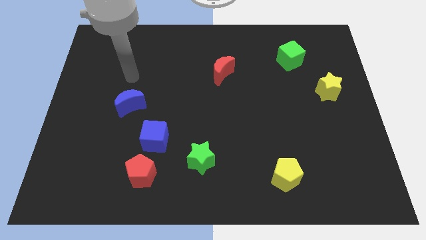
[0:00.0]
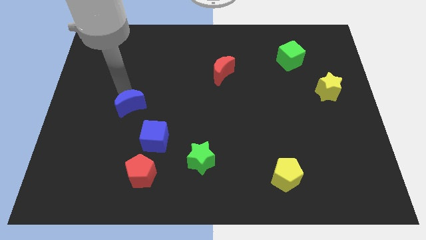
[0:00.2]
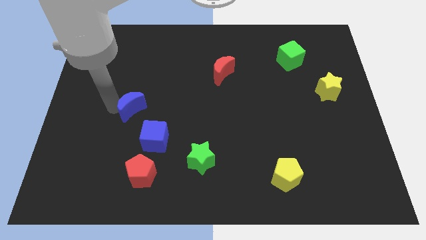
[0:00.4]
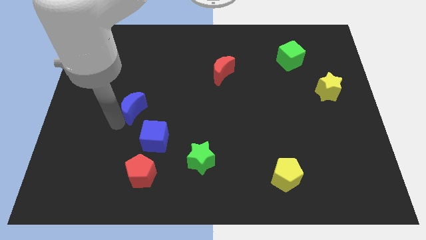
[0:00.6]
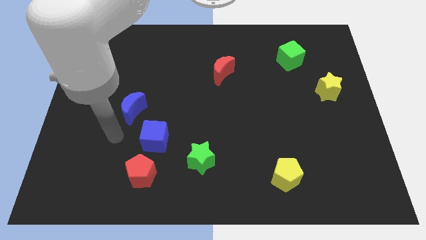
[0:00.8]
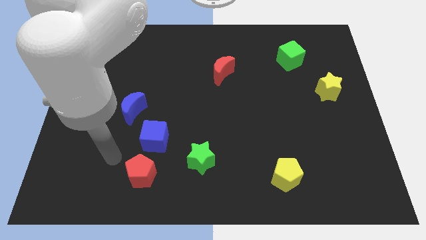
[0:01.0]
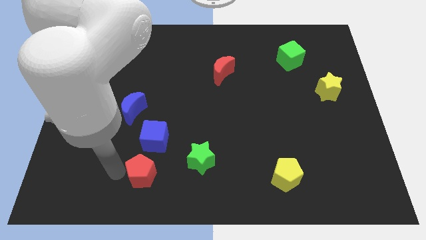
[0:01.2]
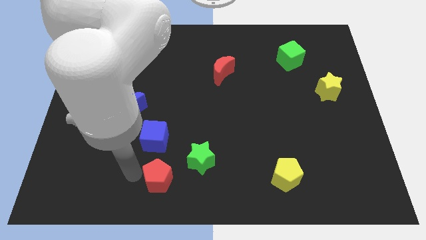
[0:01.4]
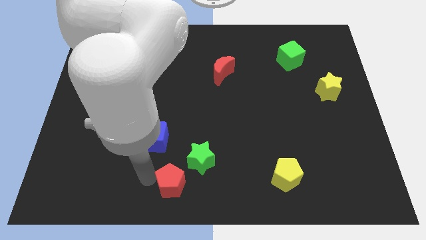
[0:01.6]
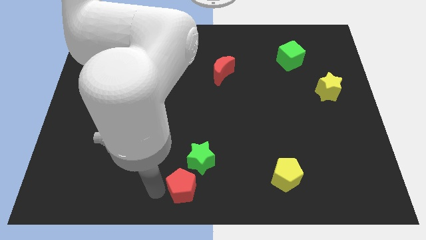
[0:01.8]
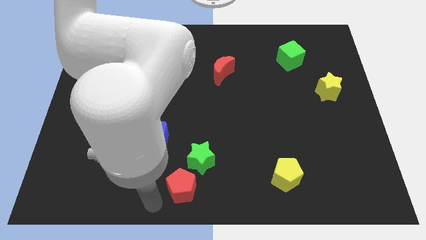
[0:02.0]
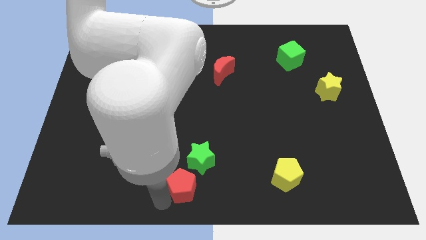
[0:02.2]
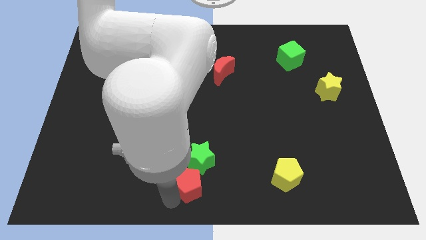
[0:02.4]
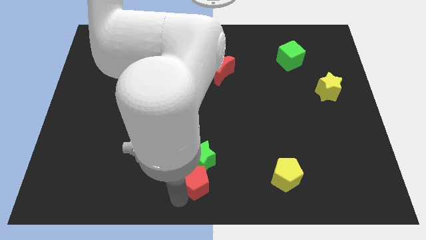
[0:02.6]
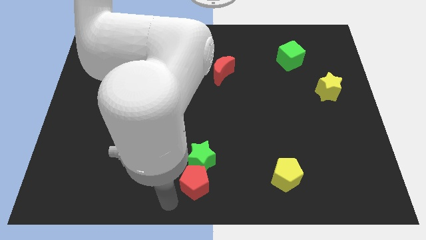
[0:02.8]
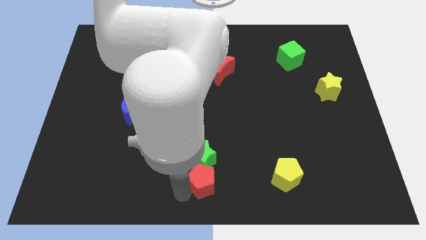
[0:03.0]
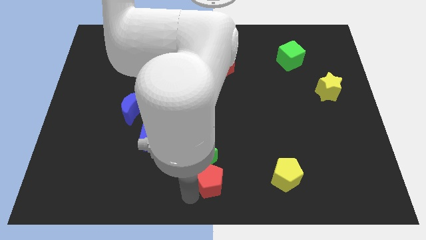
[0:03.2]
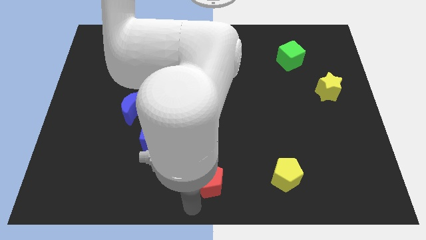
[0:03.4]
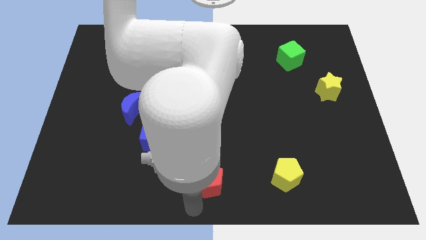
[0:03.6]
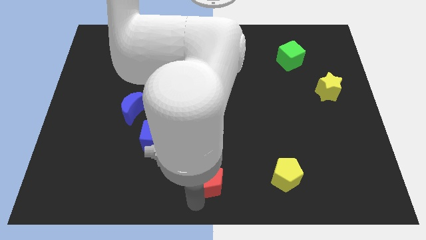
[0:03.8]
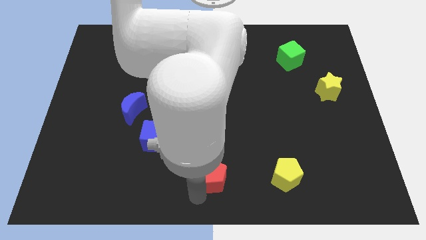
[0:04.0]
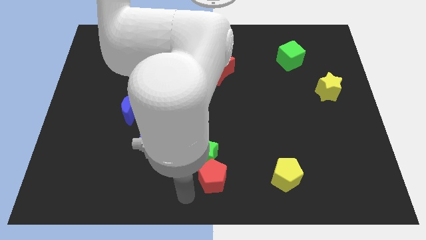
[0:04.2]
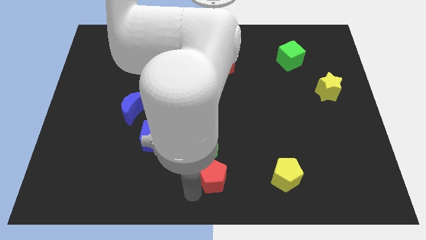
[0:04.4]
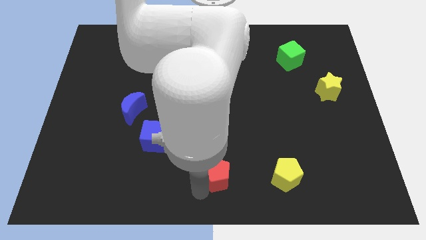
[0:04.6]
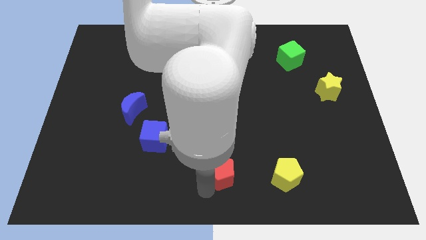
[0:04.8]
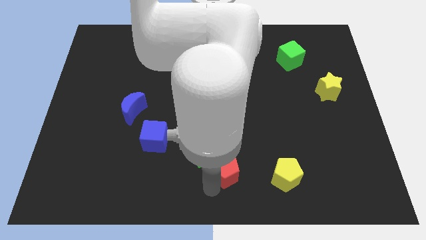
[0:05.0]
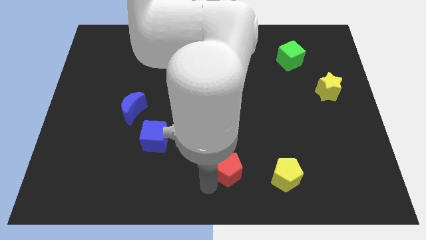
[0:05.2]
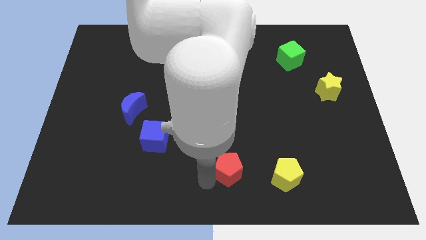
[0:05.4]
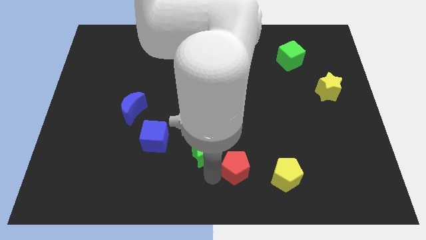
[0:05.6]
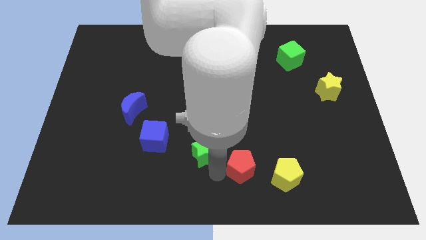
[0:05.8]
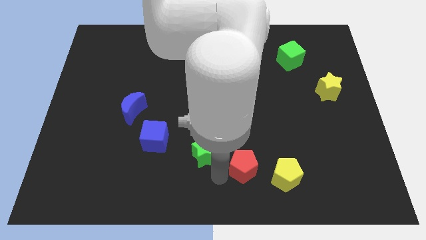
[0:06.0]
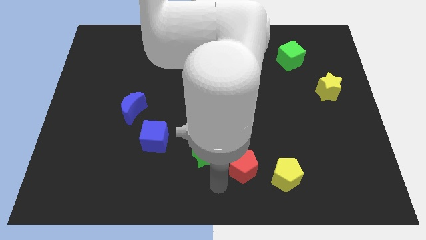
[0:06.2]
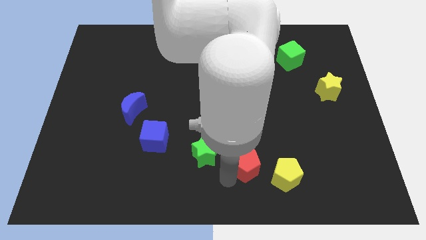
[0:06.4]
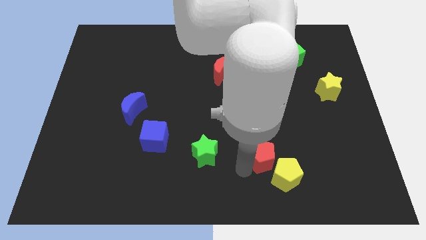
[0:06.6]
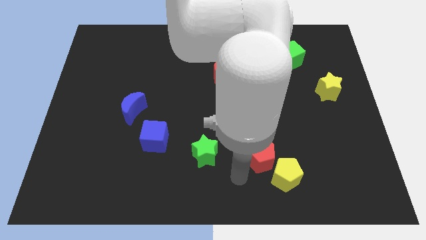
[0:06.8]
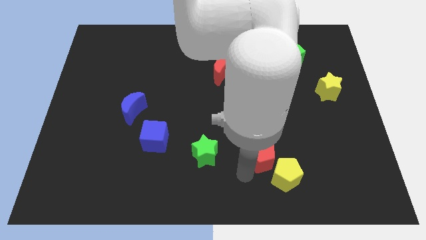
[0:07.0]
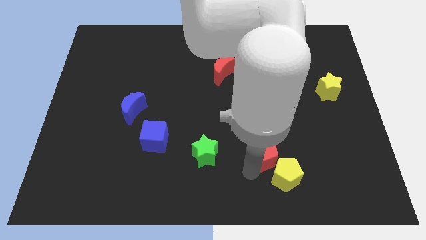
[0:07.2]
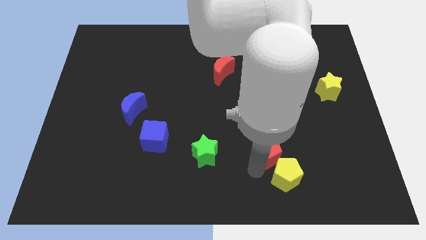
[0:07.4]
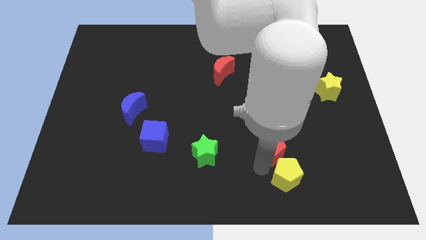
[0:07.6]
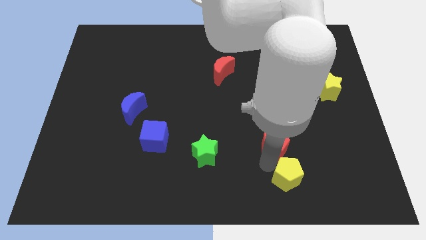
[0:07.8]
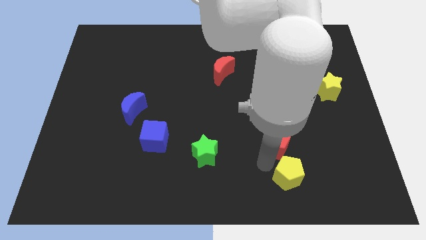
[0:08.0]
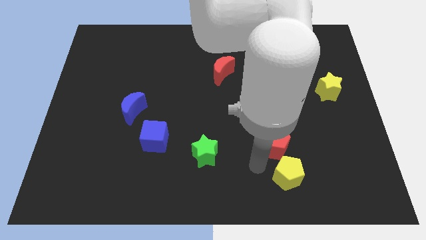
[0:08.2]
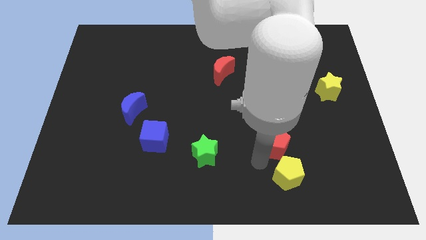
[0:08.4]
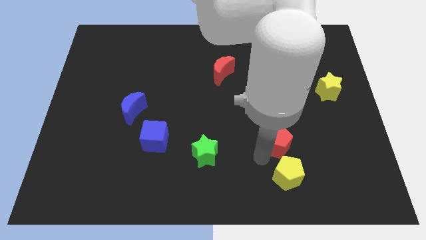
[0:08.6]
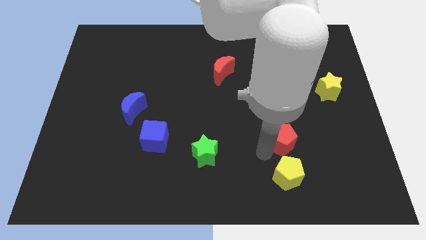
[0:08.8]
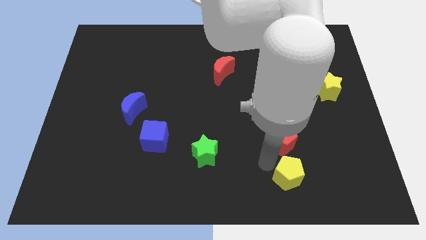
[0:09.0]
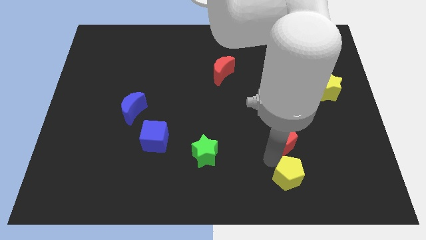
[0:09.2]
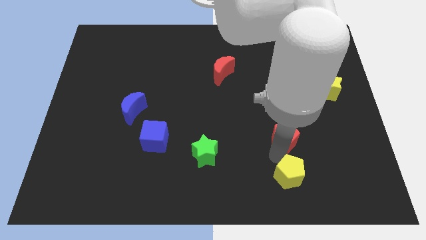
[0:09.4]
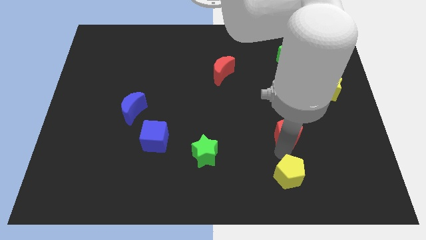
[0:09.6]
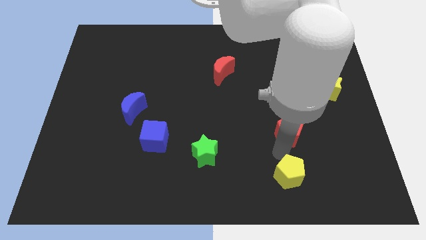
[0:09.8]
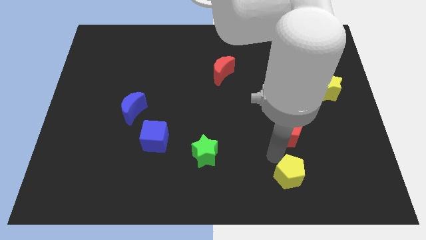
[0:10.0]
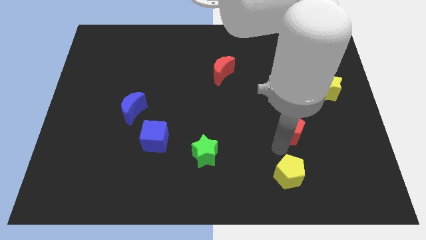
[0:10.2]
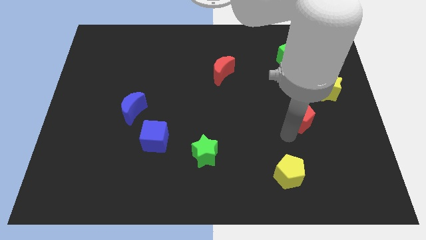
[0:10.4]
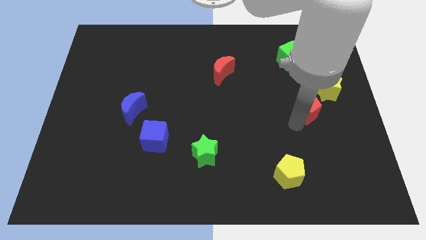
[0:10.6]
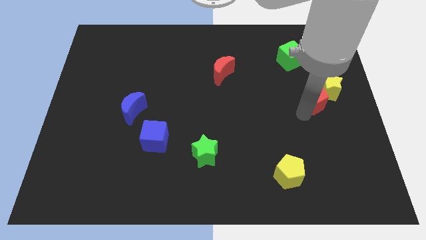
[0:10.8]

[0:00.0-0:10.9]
push the red pentagon next to the yellow star

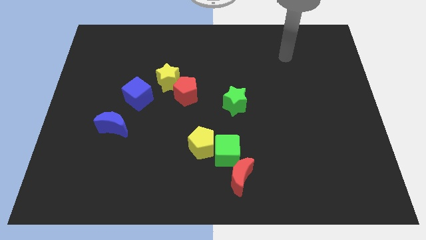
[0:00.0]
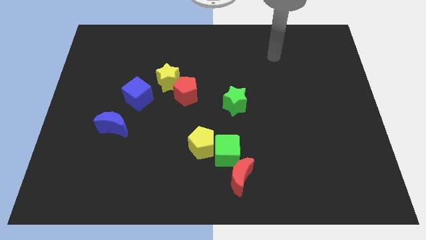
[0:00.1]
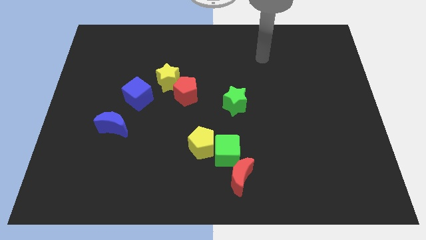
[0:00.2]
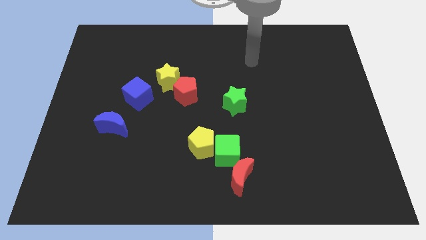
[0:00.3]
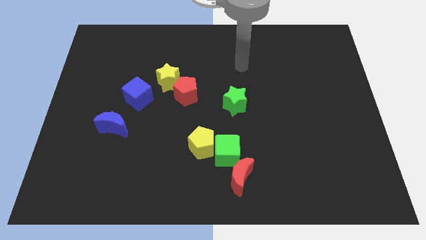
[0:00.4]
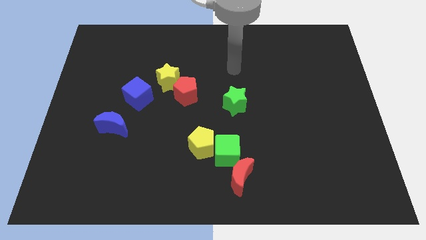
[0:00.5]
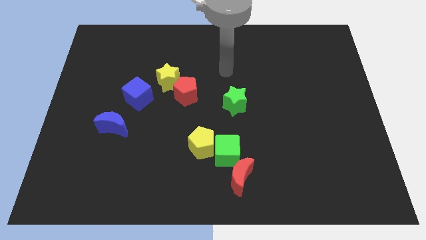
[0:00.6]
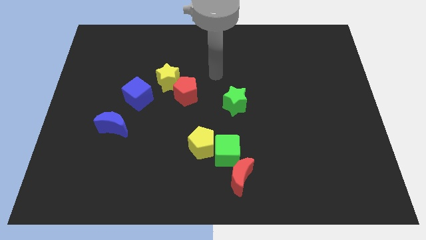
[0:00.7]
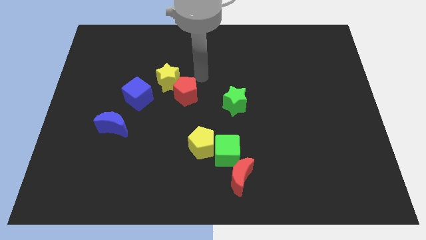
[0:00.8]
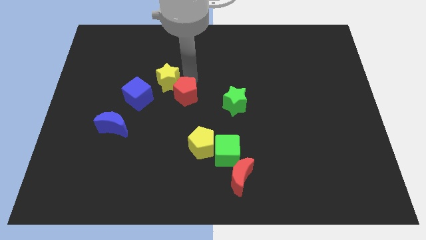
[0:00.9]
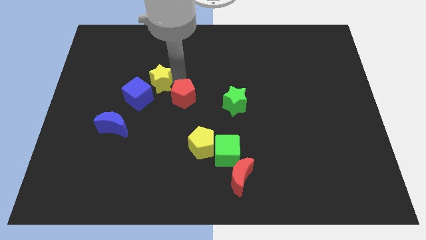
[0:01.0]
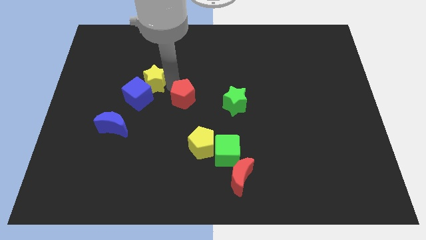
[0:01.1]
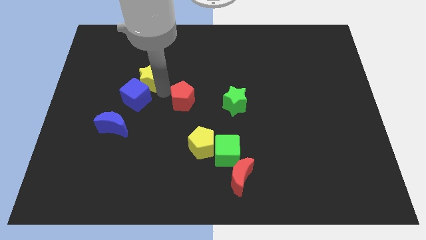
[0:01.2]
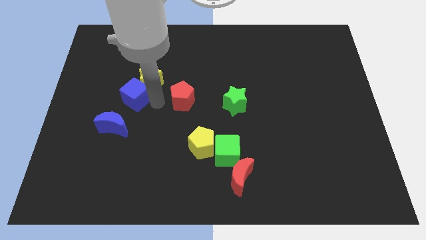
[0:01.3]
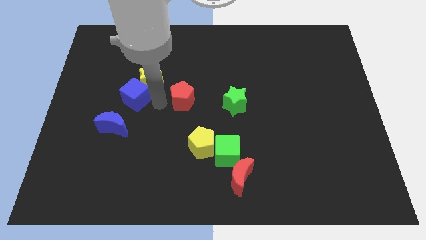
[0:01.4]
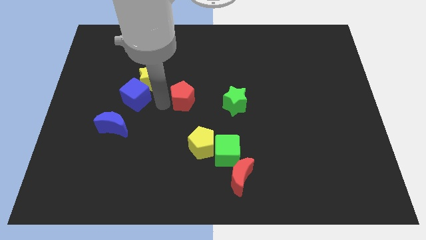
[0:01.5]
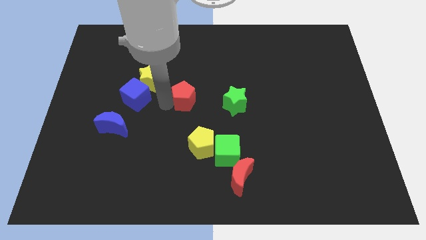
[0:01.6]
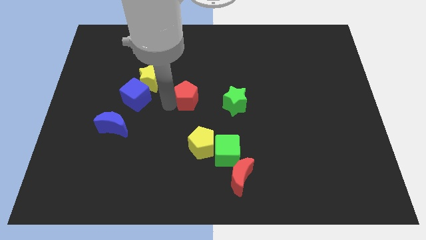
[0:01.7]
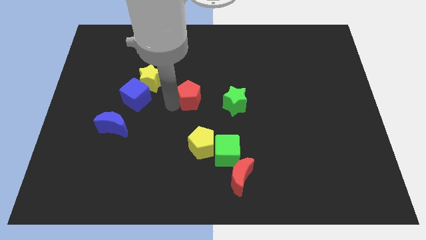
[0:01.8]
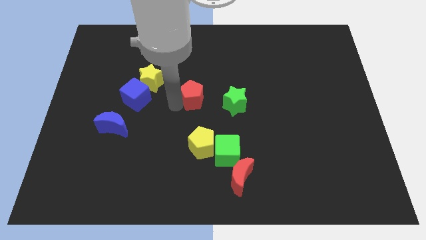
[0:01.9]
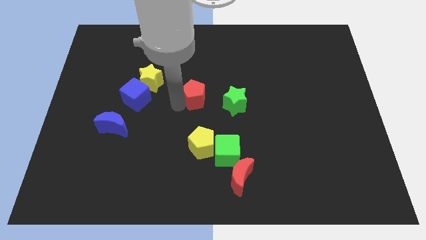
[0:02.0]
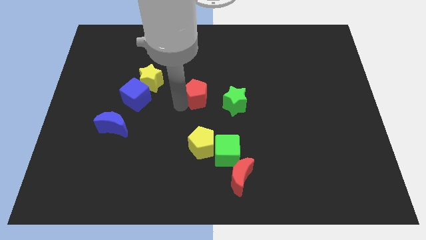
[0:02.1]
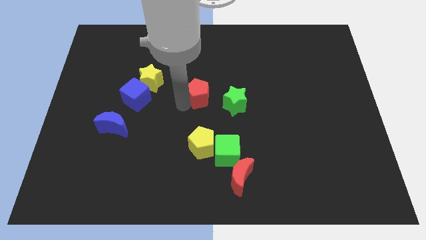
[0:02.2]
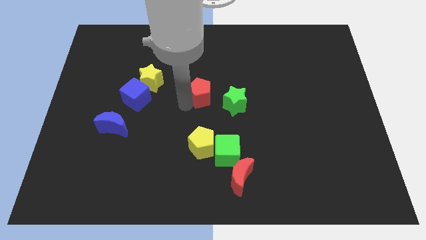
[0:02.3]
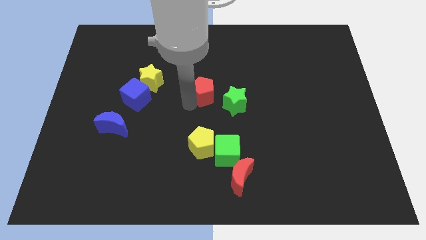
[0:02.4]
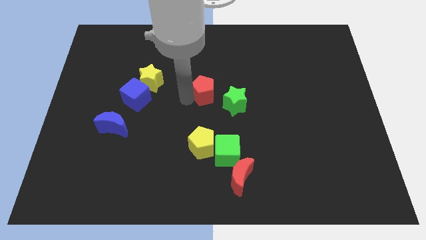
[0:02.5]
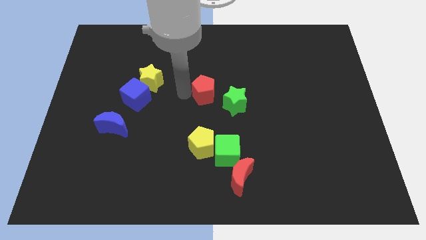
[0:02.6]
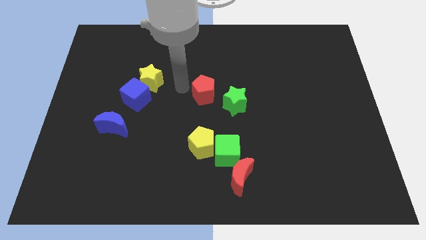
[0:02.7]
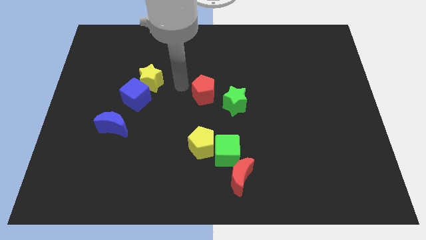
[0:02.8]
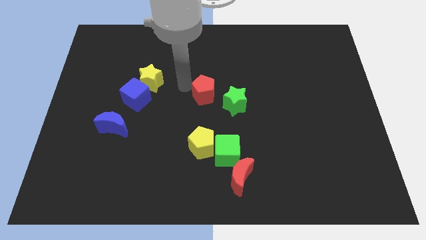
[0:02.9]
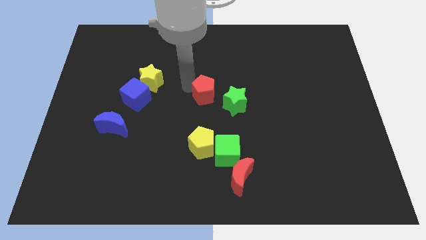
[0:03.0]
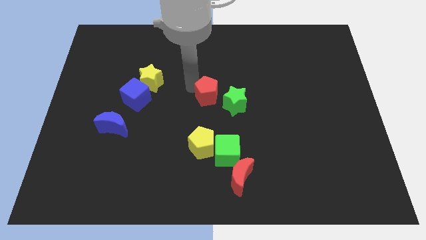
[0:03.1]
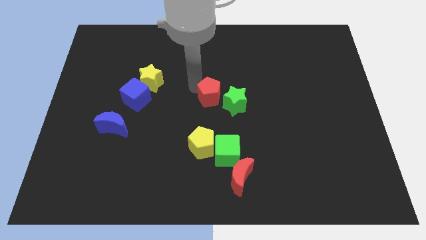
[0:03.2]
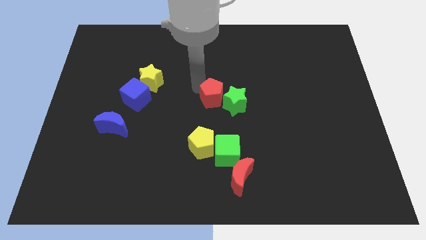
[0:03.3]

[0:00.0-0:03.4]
push the red pentagon close to the green star
